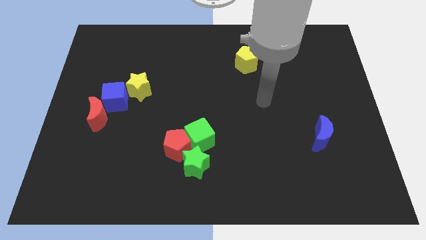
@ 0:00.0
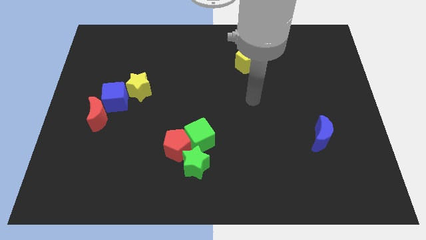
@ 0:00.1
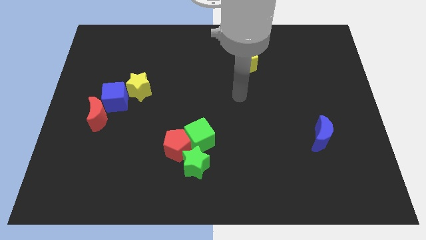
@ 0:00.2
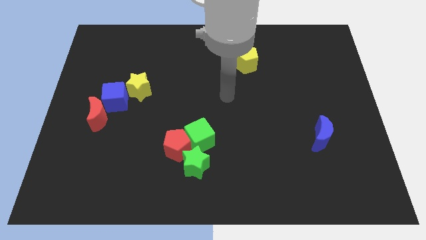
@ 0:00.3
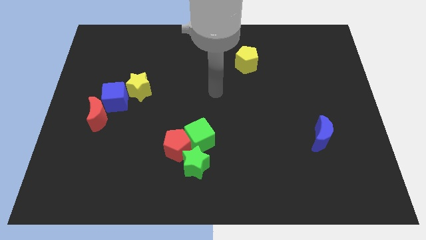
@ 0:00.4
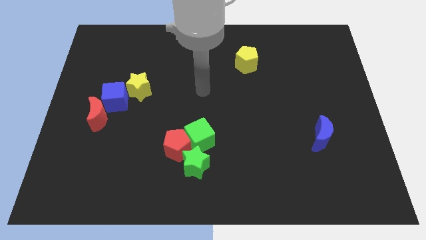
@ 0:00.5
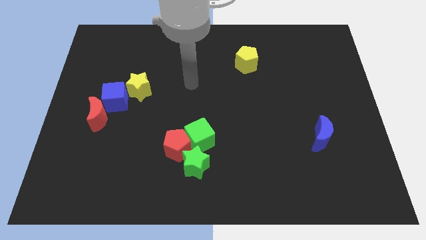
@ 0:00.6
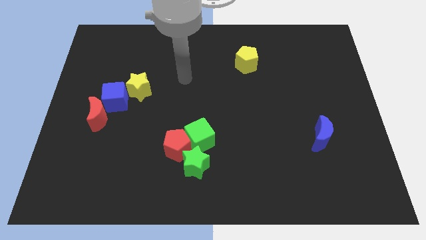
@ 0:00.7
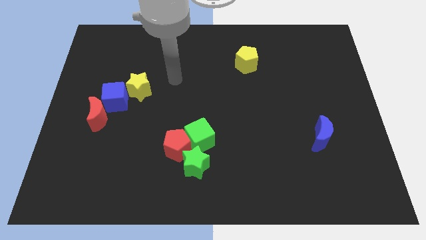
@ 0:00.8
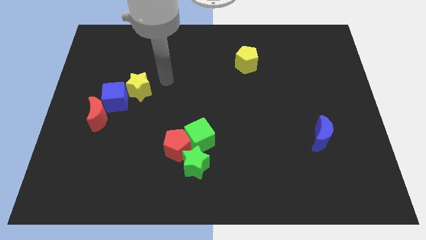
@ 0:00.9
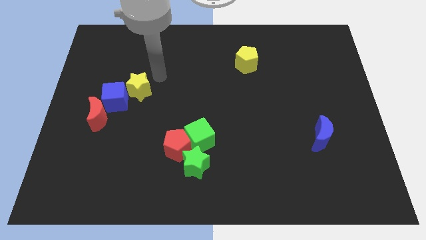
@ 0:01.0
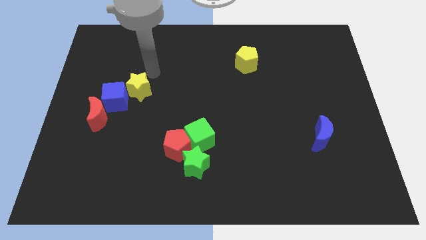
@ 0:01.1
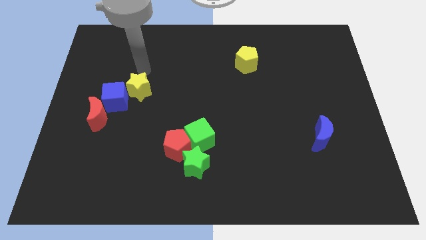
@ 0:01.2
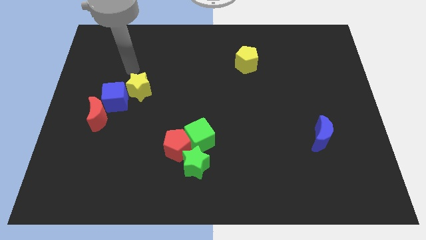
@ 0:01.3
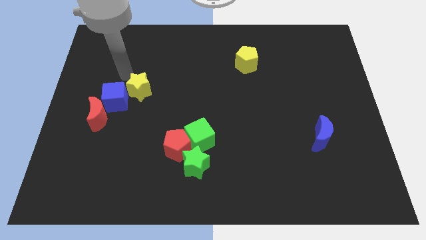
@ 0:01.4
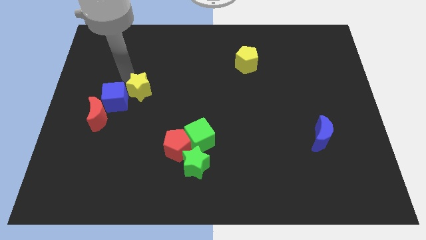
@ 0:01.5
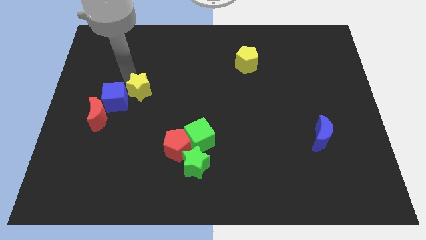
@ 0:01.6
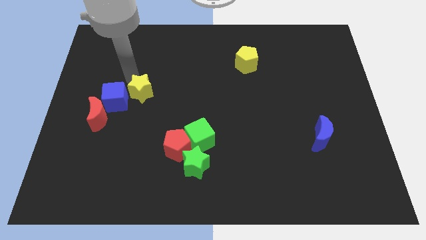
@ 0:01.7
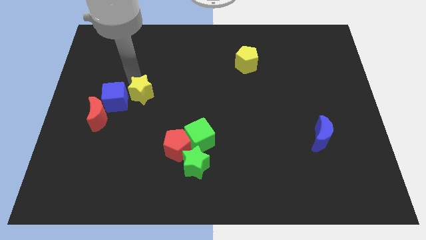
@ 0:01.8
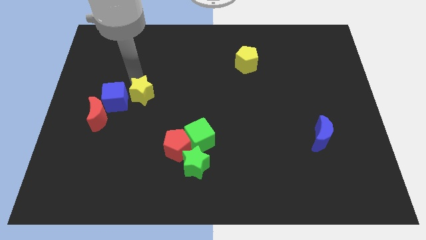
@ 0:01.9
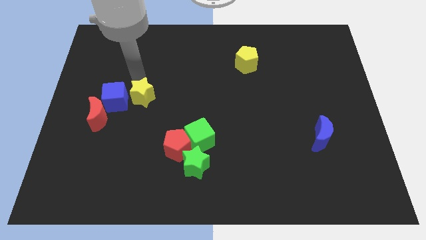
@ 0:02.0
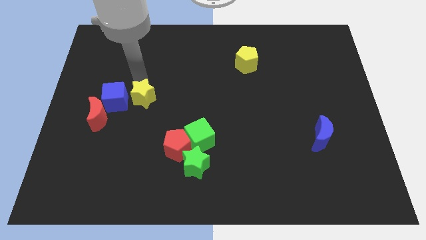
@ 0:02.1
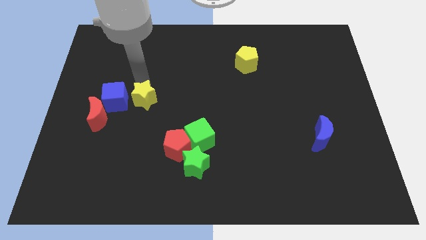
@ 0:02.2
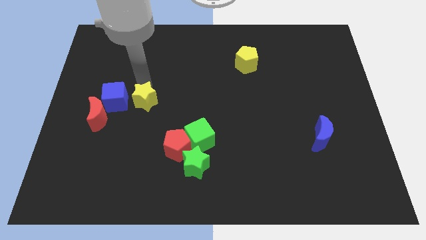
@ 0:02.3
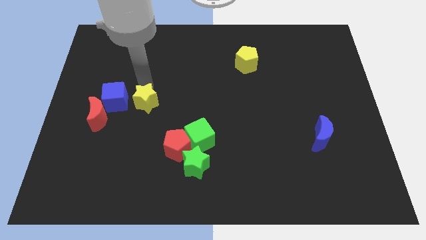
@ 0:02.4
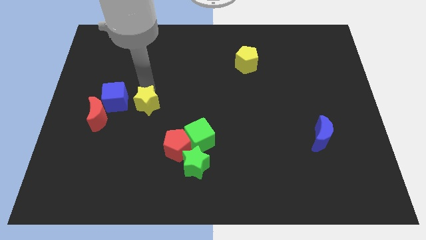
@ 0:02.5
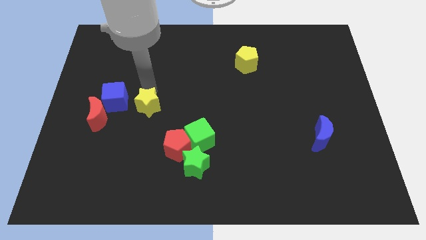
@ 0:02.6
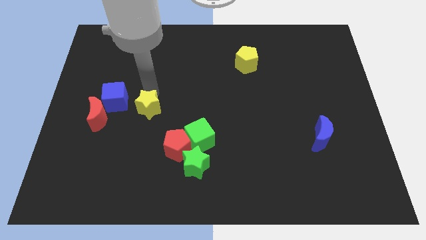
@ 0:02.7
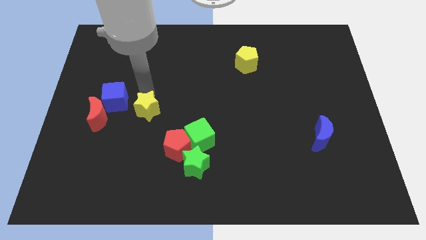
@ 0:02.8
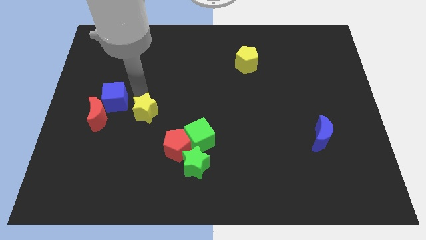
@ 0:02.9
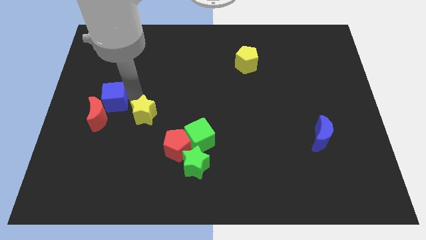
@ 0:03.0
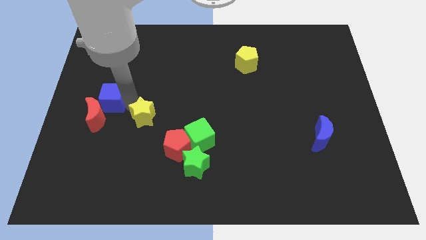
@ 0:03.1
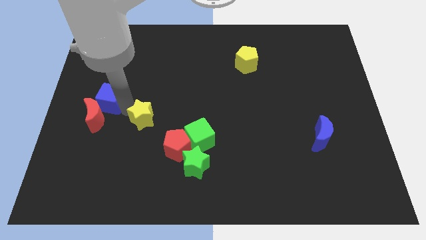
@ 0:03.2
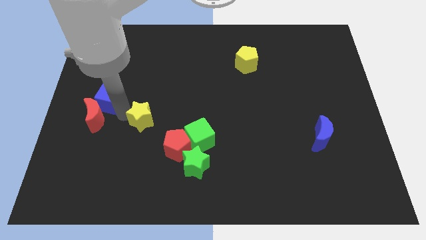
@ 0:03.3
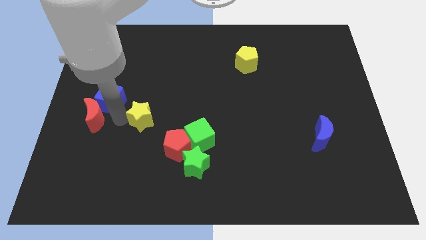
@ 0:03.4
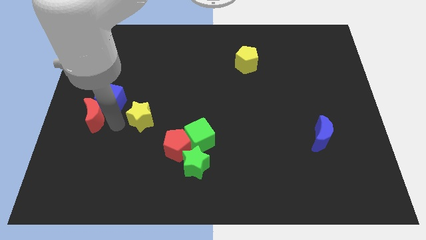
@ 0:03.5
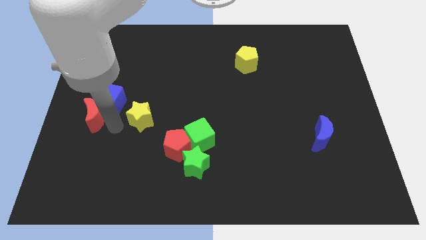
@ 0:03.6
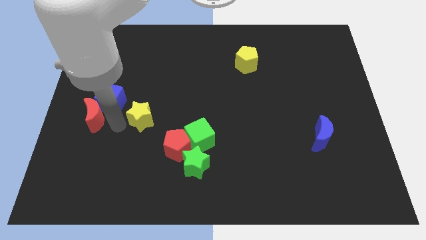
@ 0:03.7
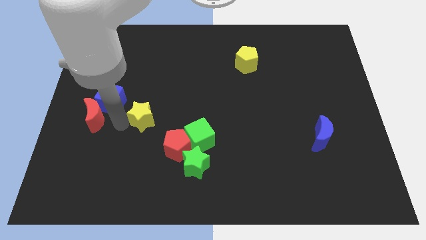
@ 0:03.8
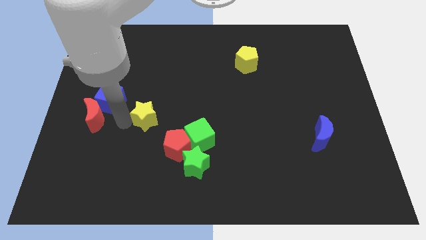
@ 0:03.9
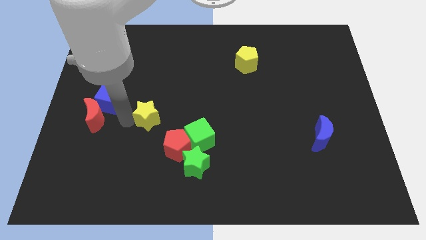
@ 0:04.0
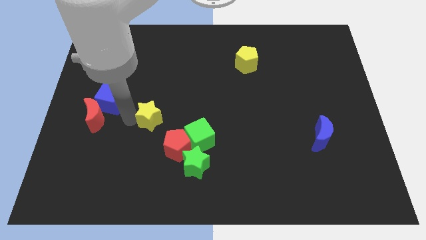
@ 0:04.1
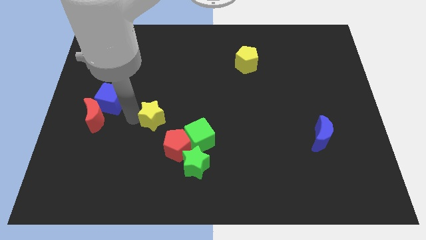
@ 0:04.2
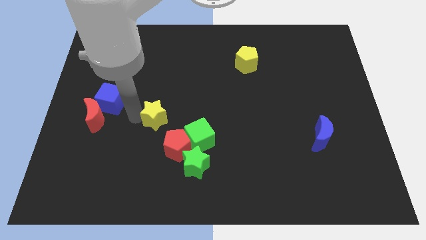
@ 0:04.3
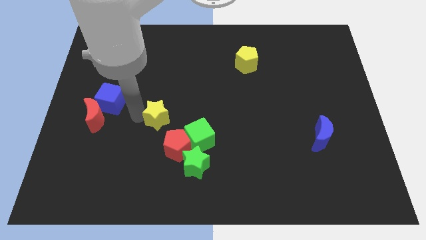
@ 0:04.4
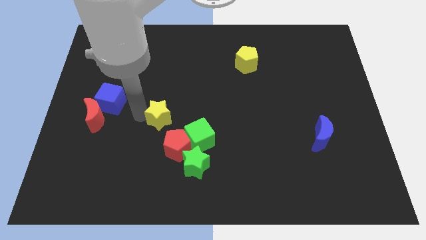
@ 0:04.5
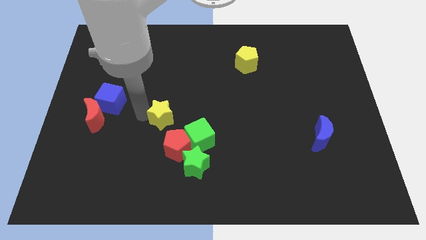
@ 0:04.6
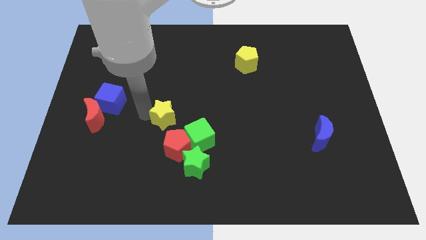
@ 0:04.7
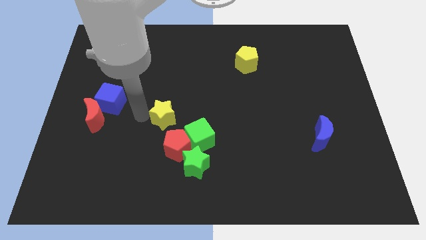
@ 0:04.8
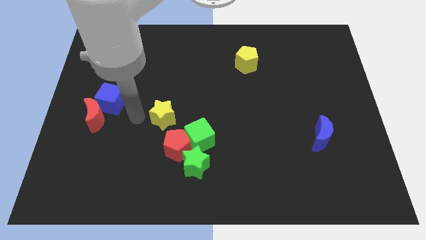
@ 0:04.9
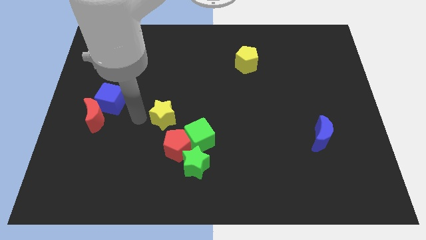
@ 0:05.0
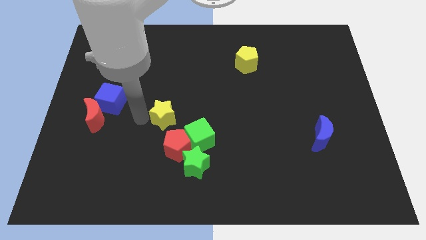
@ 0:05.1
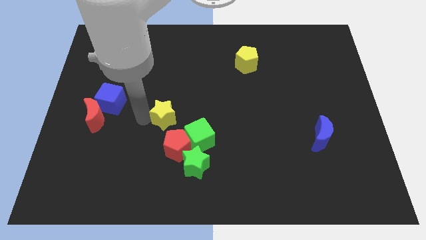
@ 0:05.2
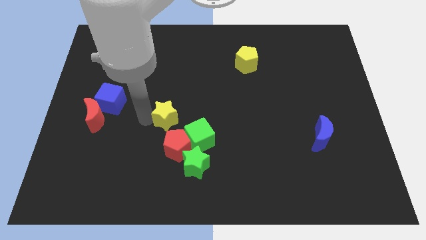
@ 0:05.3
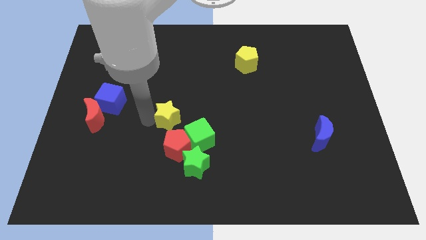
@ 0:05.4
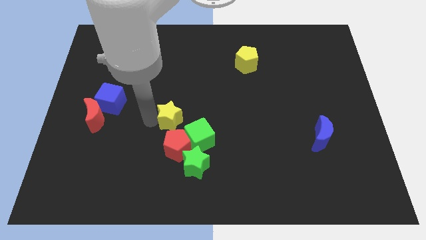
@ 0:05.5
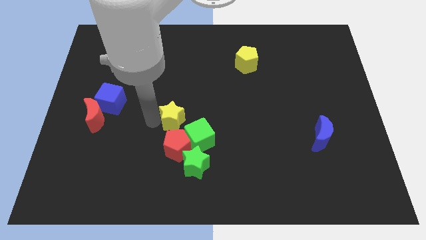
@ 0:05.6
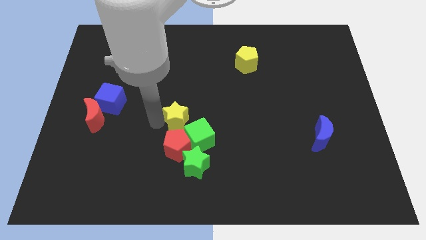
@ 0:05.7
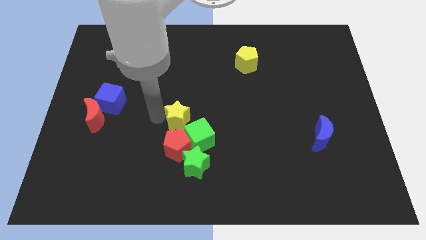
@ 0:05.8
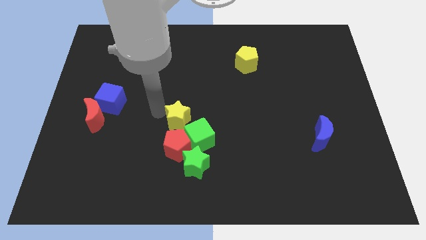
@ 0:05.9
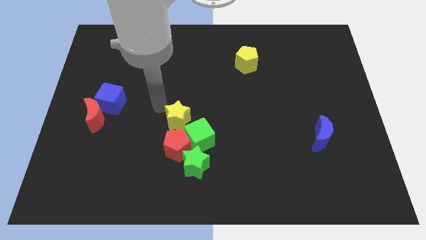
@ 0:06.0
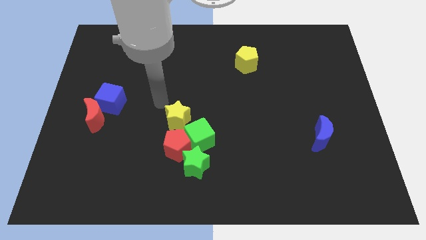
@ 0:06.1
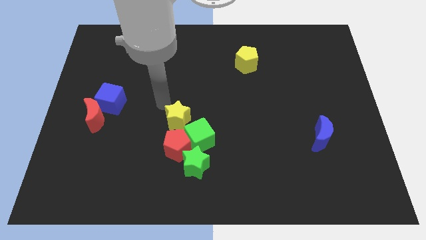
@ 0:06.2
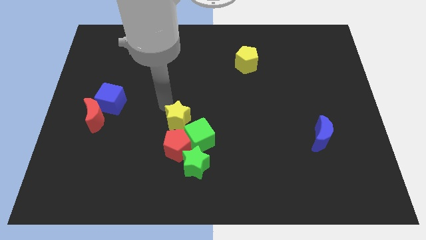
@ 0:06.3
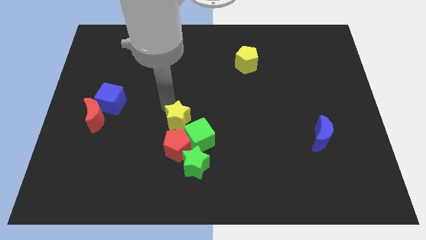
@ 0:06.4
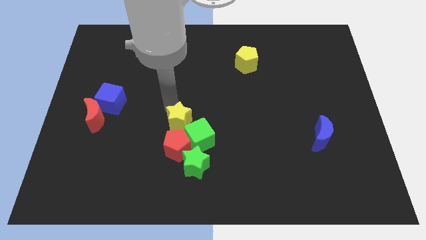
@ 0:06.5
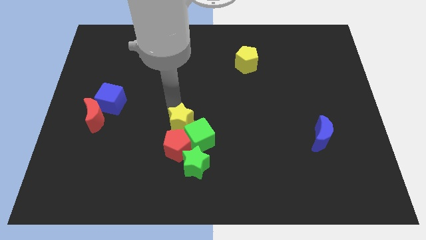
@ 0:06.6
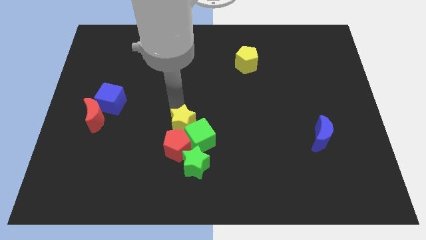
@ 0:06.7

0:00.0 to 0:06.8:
put the yellow star close to the green cube

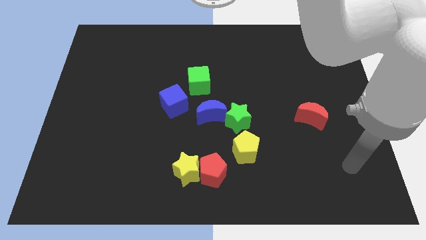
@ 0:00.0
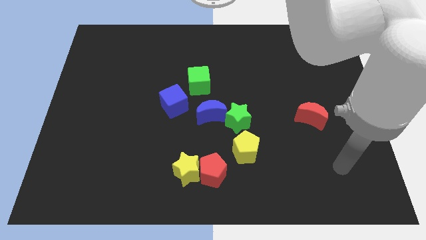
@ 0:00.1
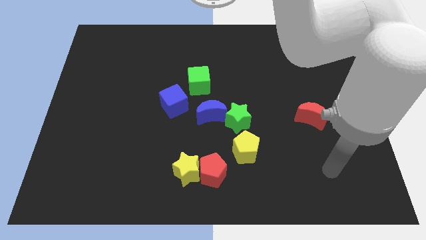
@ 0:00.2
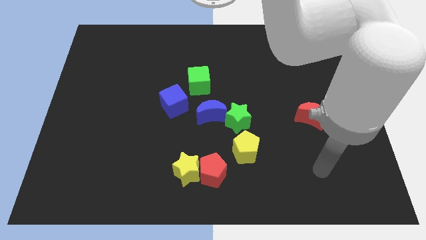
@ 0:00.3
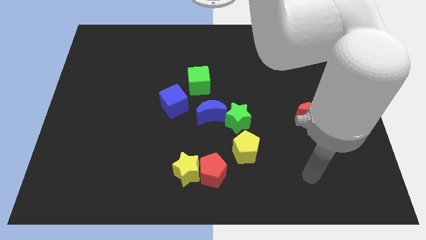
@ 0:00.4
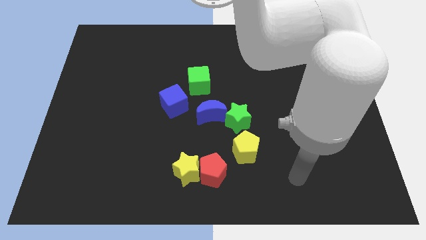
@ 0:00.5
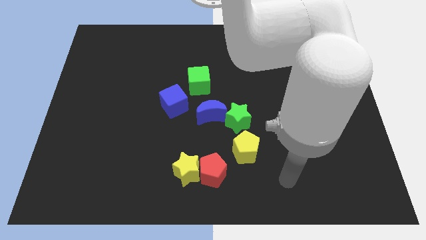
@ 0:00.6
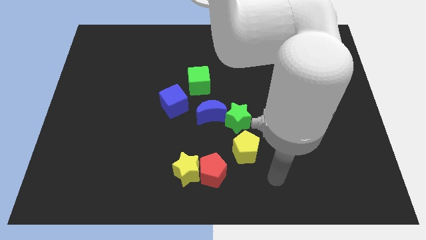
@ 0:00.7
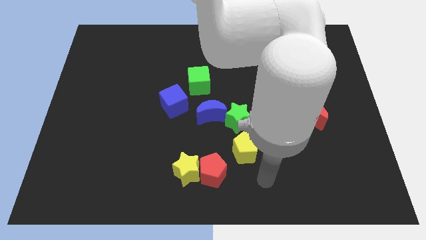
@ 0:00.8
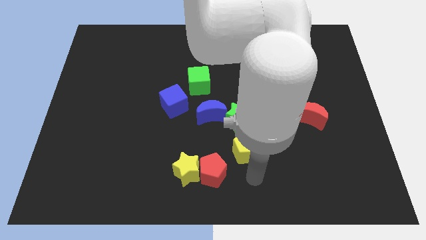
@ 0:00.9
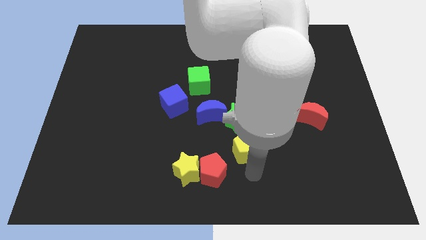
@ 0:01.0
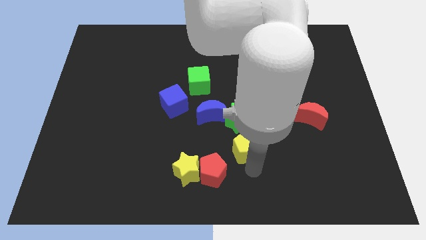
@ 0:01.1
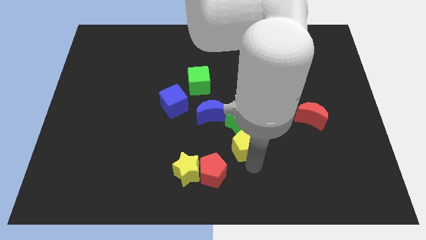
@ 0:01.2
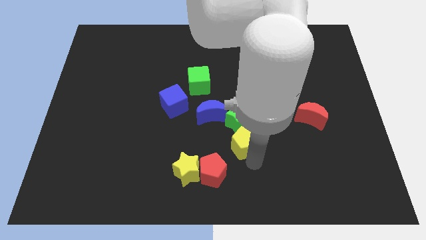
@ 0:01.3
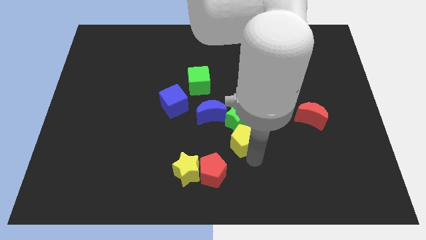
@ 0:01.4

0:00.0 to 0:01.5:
slide the yellow pentagon towards the green star
